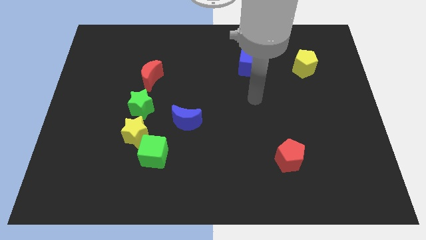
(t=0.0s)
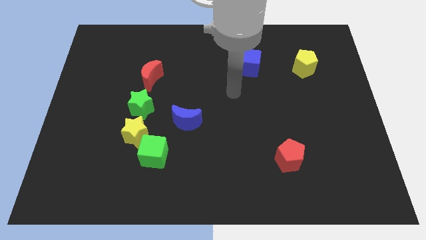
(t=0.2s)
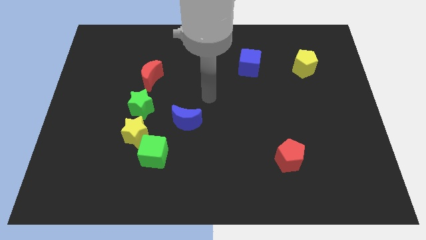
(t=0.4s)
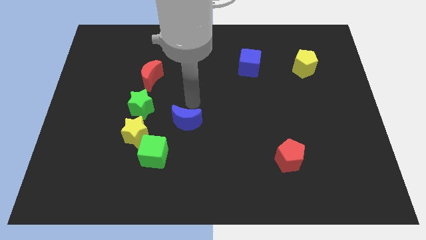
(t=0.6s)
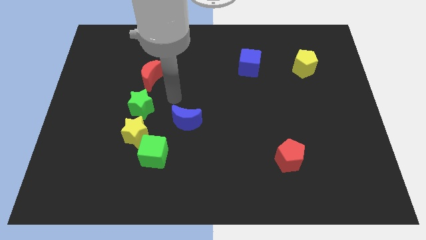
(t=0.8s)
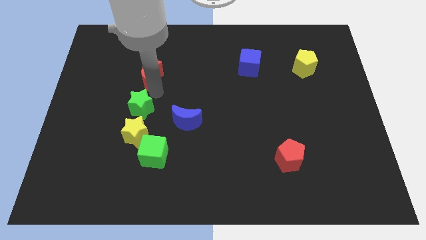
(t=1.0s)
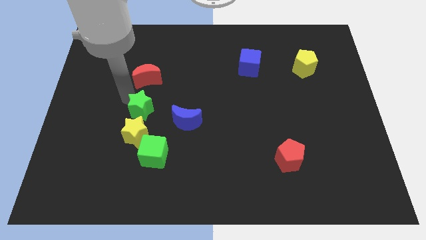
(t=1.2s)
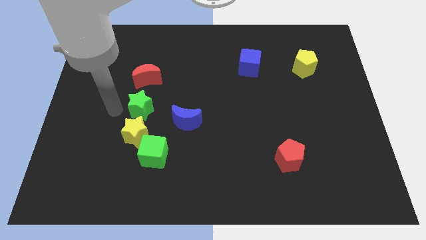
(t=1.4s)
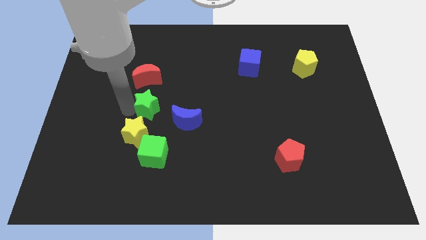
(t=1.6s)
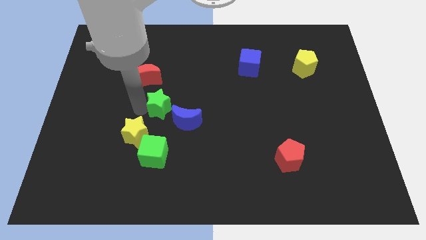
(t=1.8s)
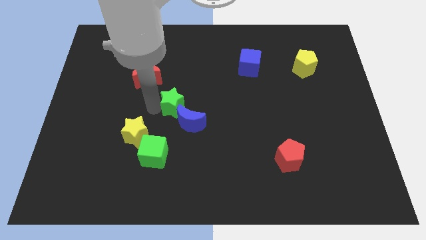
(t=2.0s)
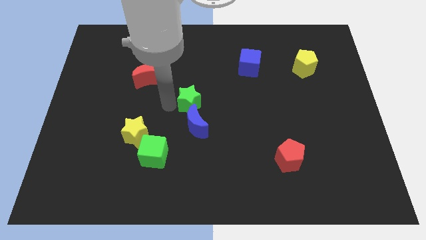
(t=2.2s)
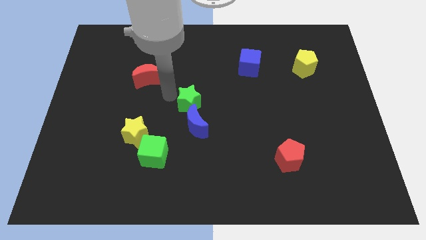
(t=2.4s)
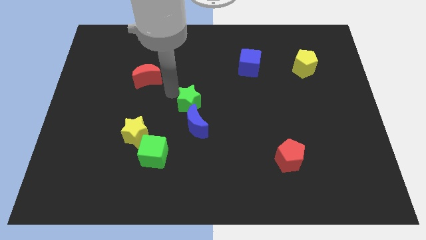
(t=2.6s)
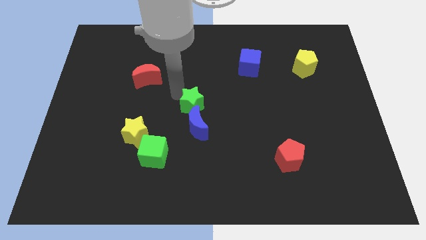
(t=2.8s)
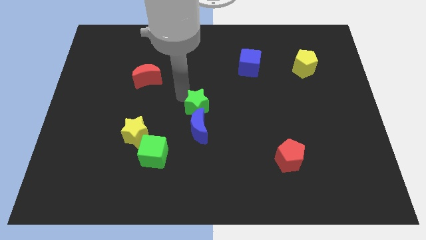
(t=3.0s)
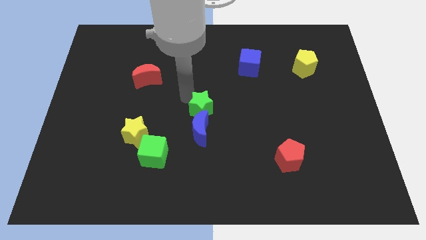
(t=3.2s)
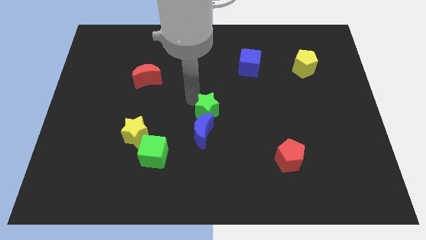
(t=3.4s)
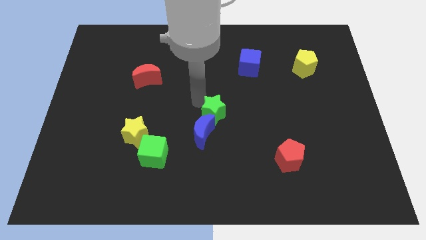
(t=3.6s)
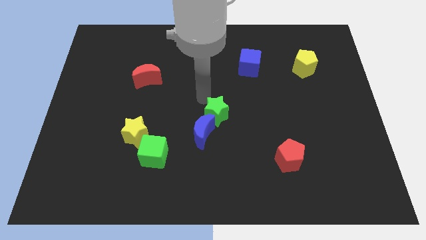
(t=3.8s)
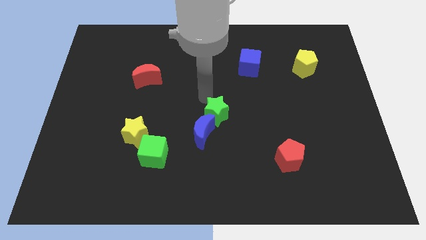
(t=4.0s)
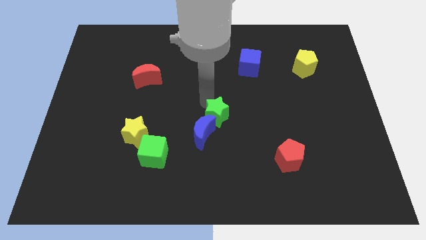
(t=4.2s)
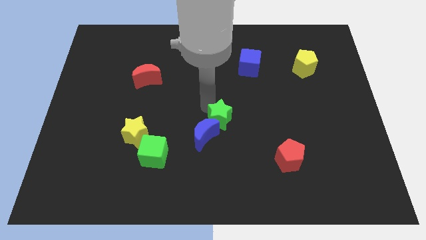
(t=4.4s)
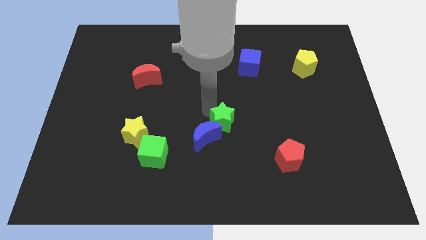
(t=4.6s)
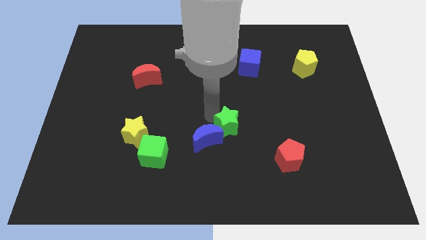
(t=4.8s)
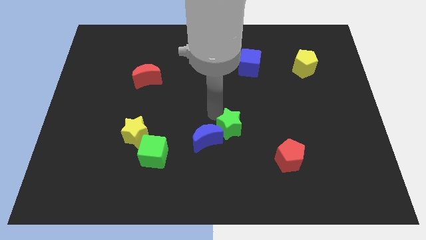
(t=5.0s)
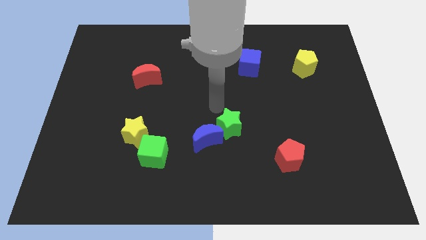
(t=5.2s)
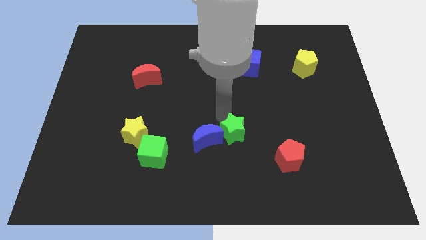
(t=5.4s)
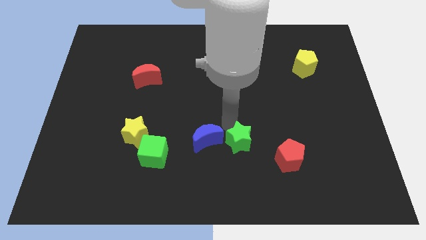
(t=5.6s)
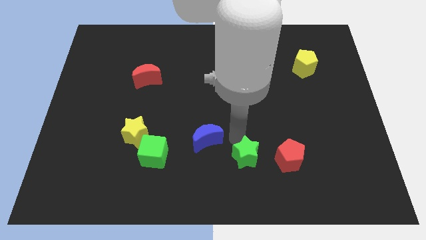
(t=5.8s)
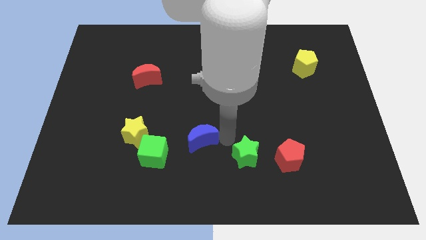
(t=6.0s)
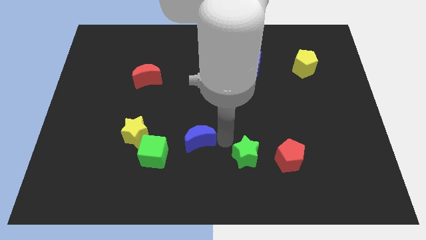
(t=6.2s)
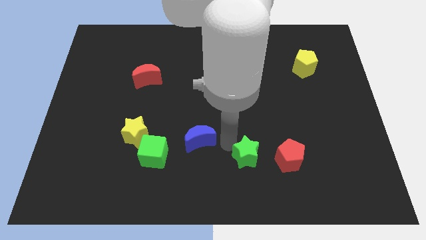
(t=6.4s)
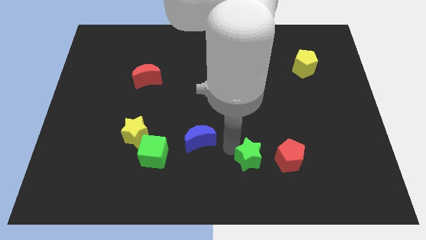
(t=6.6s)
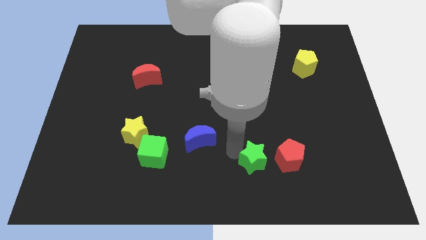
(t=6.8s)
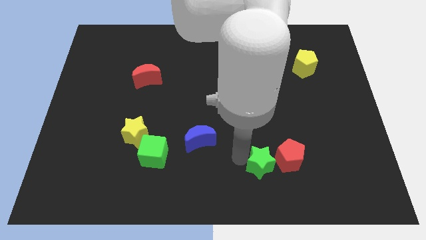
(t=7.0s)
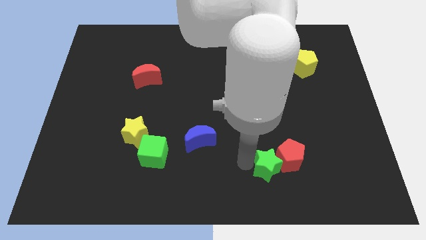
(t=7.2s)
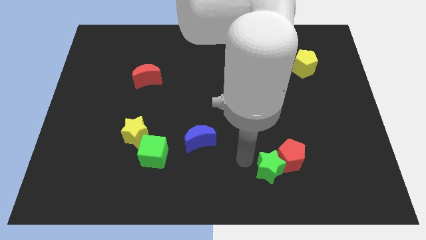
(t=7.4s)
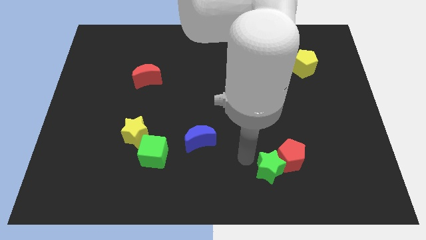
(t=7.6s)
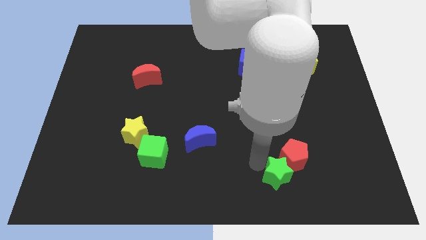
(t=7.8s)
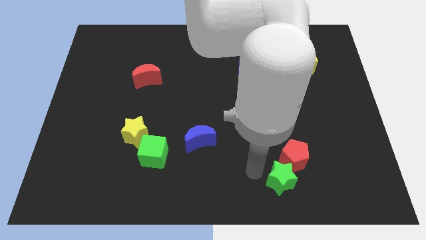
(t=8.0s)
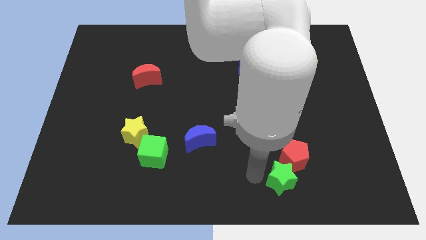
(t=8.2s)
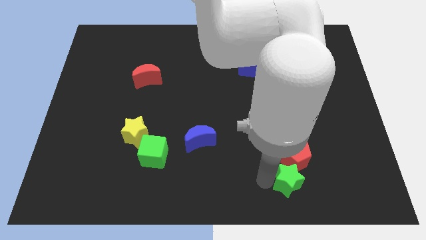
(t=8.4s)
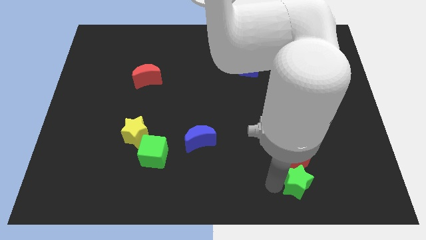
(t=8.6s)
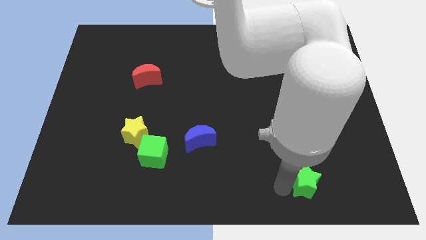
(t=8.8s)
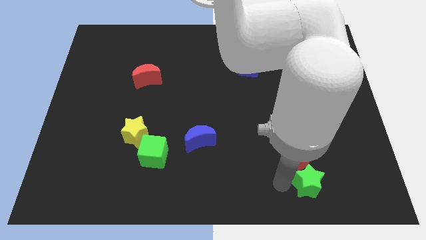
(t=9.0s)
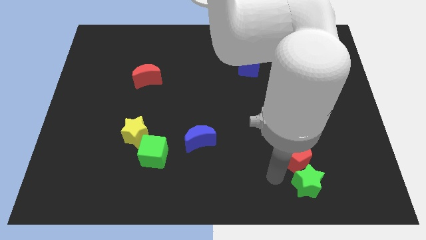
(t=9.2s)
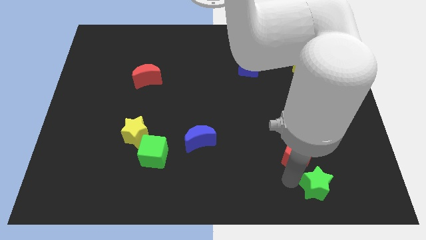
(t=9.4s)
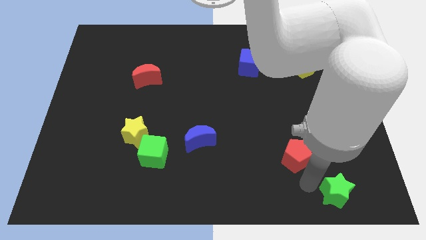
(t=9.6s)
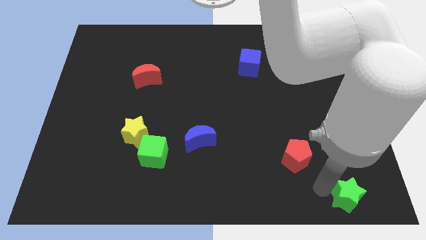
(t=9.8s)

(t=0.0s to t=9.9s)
slide the green star to the bottom right corner

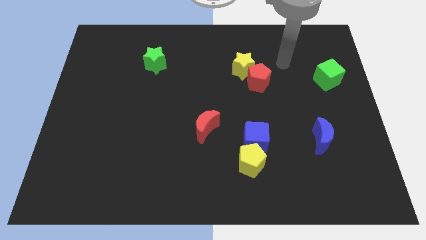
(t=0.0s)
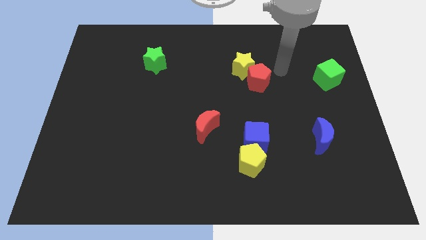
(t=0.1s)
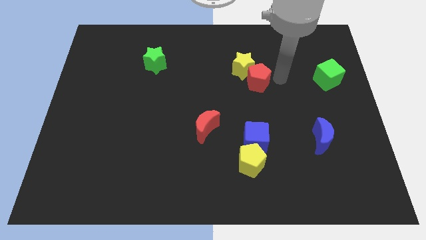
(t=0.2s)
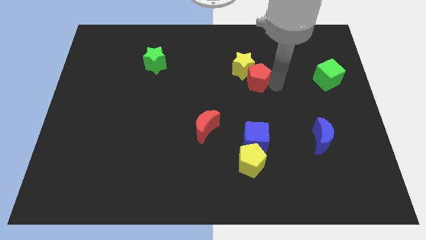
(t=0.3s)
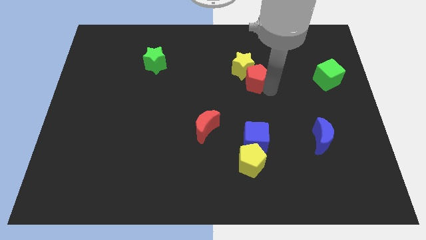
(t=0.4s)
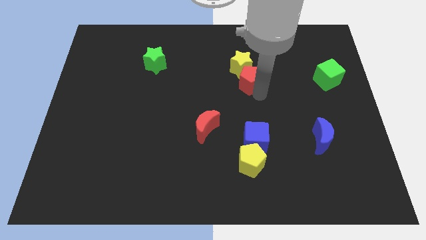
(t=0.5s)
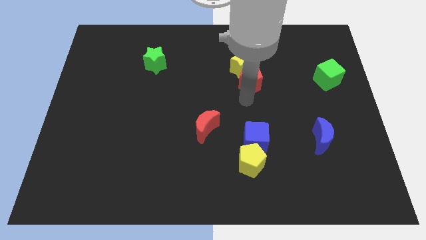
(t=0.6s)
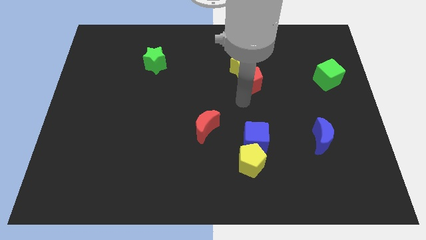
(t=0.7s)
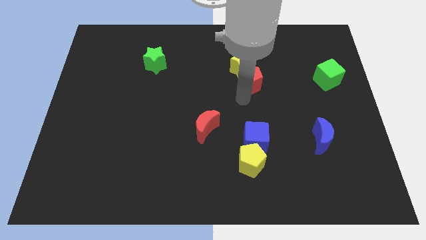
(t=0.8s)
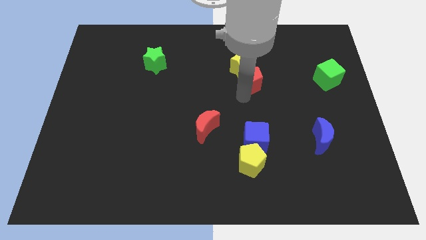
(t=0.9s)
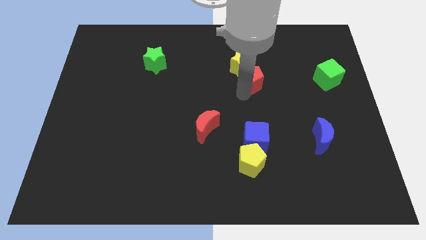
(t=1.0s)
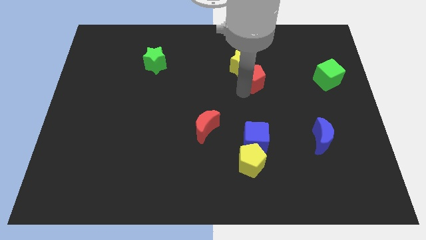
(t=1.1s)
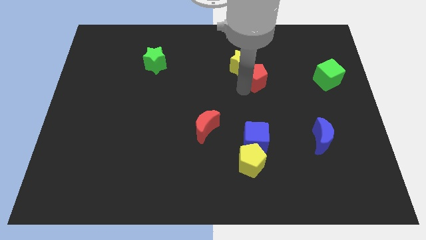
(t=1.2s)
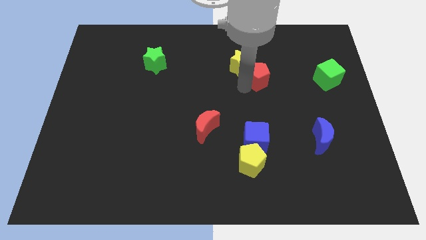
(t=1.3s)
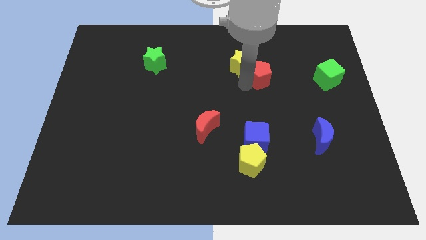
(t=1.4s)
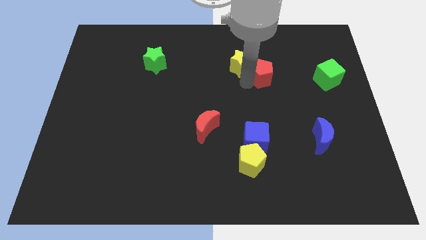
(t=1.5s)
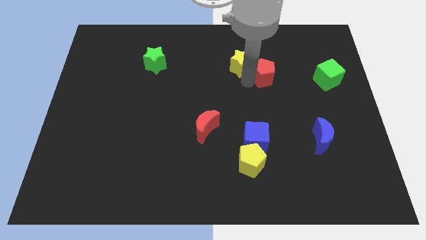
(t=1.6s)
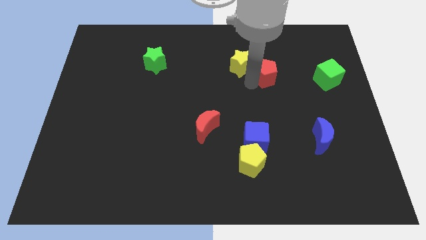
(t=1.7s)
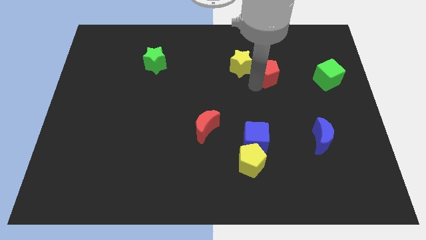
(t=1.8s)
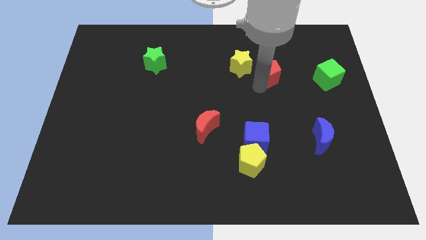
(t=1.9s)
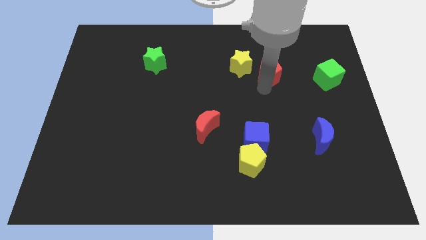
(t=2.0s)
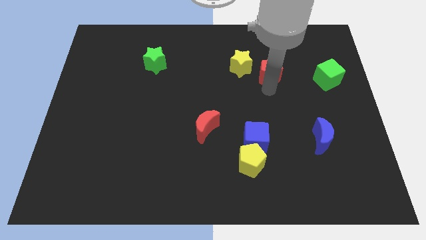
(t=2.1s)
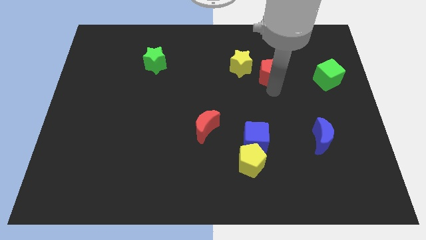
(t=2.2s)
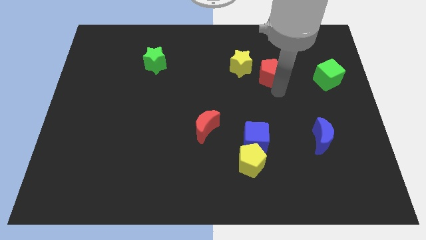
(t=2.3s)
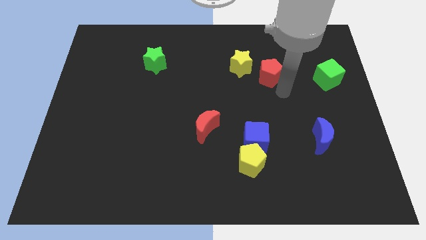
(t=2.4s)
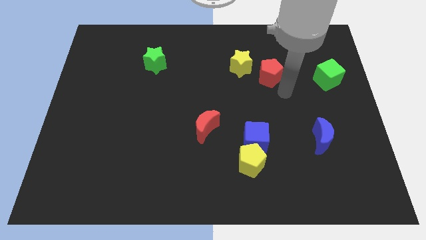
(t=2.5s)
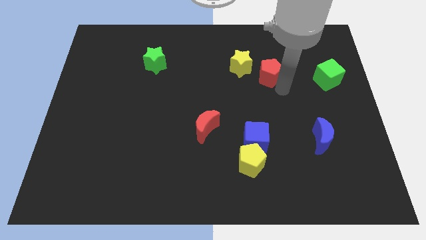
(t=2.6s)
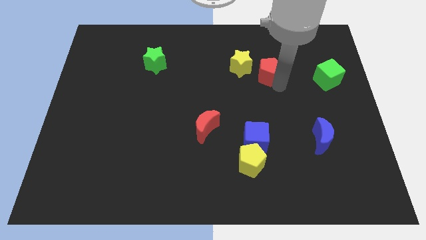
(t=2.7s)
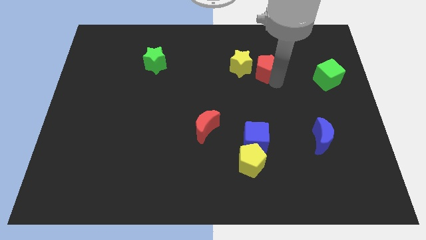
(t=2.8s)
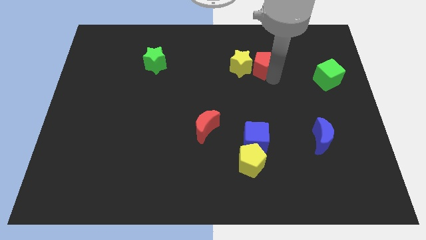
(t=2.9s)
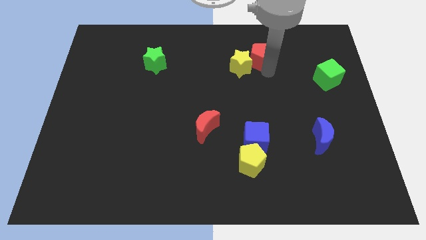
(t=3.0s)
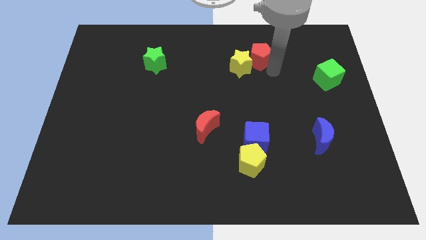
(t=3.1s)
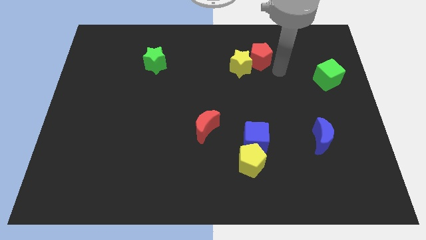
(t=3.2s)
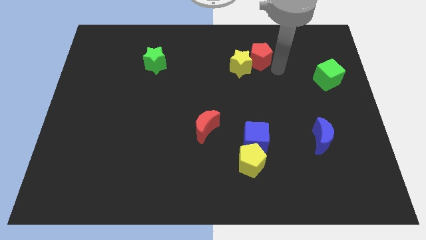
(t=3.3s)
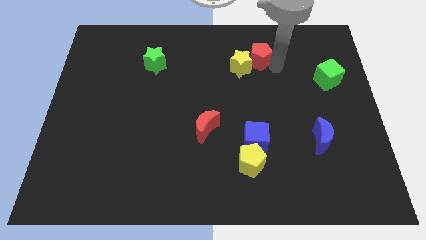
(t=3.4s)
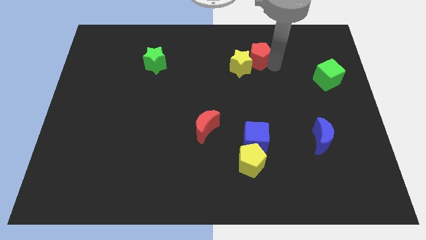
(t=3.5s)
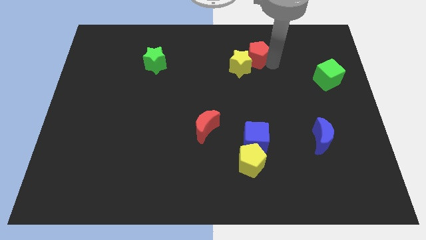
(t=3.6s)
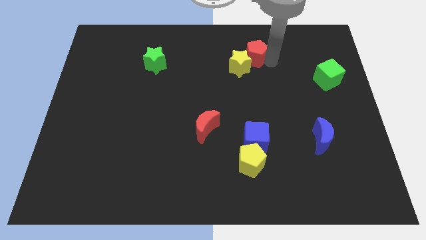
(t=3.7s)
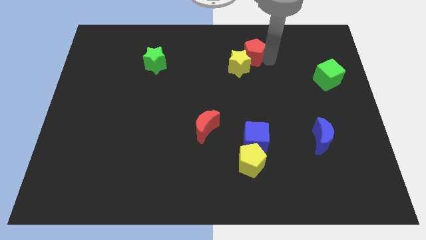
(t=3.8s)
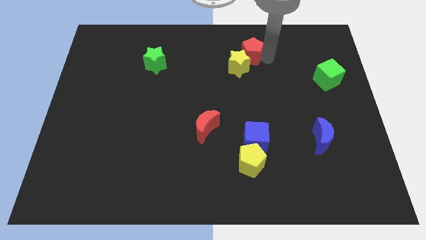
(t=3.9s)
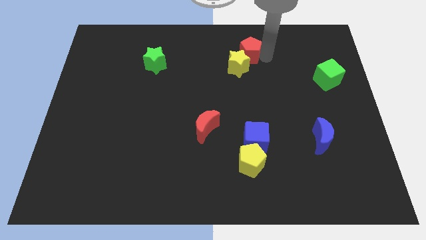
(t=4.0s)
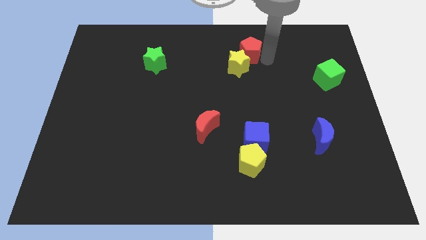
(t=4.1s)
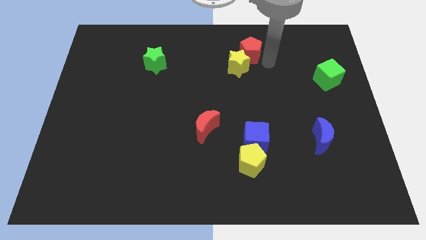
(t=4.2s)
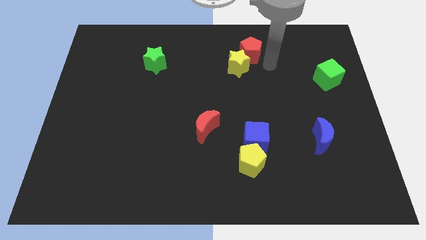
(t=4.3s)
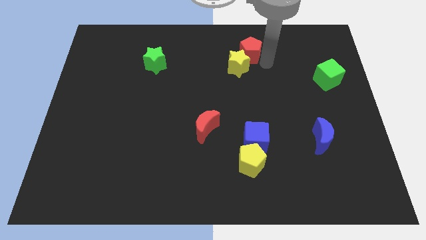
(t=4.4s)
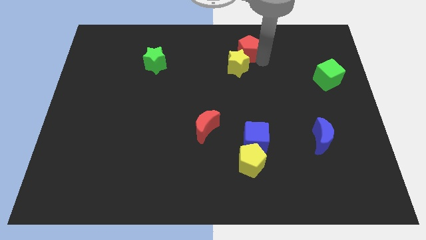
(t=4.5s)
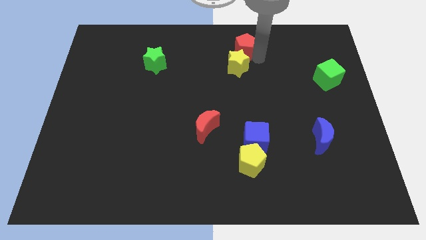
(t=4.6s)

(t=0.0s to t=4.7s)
move the red pentagon to the top
